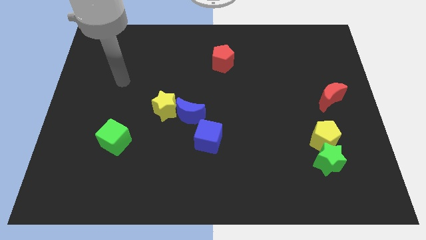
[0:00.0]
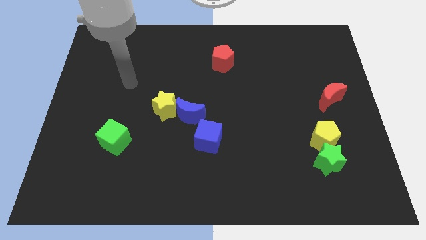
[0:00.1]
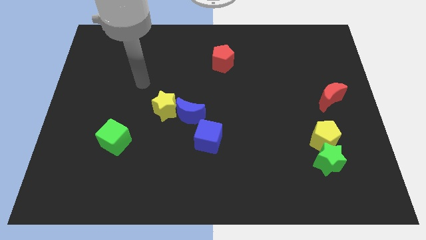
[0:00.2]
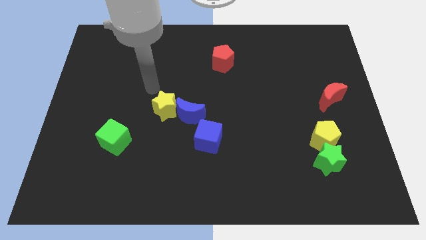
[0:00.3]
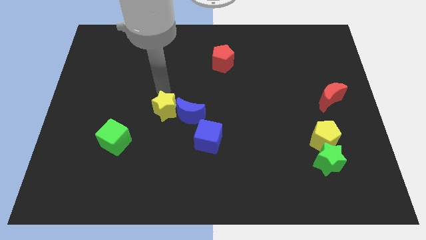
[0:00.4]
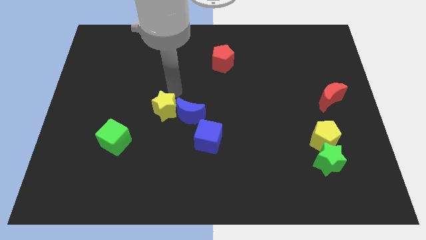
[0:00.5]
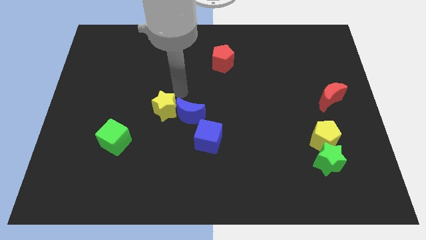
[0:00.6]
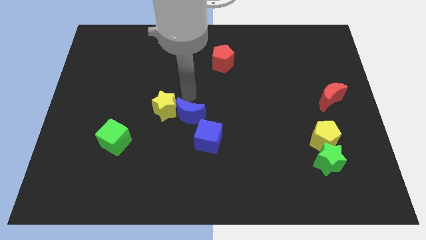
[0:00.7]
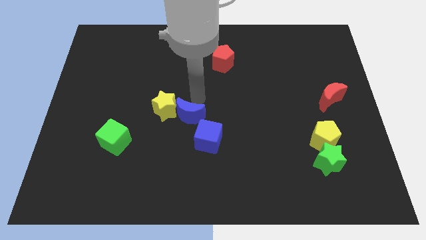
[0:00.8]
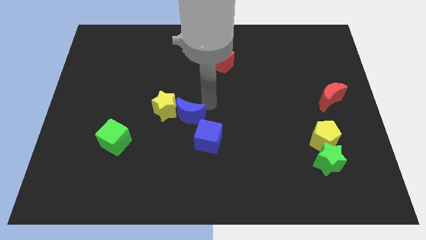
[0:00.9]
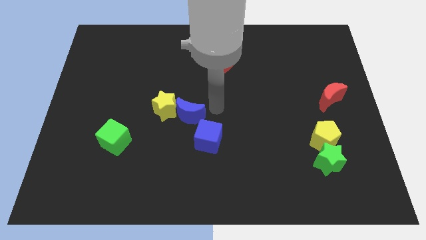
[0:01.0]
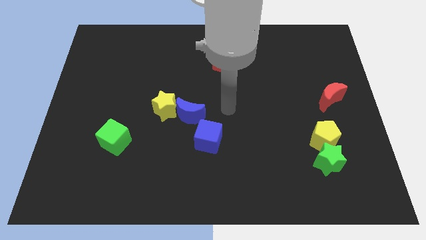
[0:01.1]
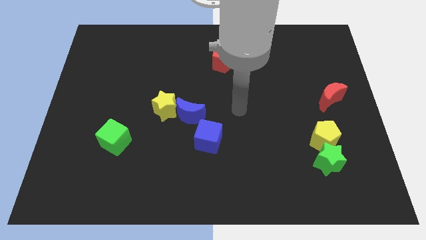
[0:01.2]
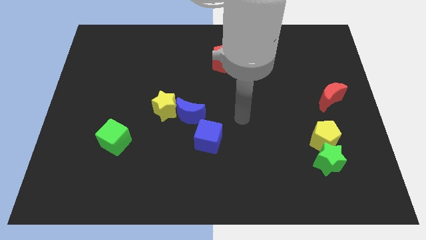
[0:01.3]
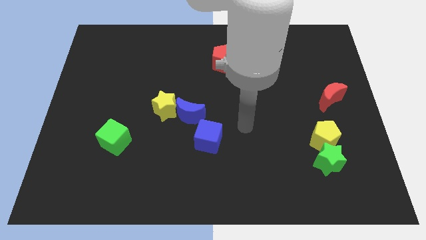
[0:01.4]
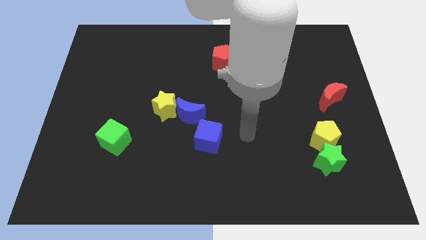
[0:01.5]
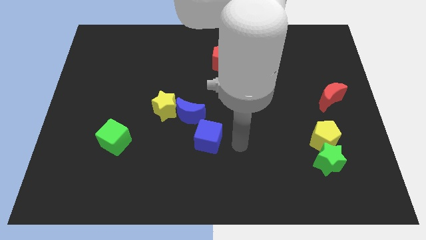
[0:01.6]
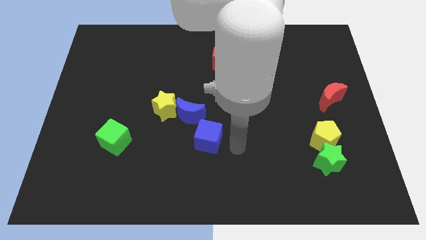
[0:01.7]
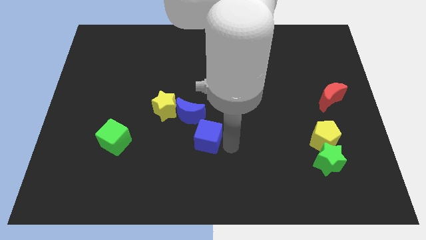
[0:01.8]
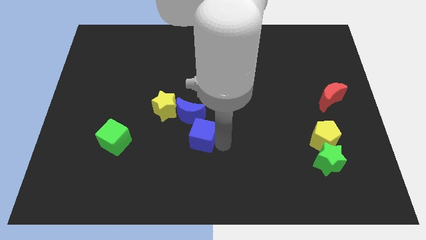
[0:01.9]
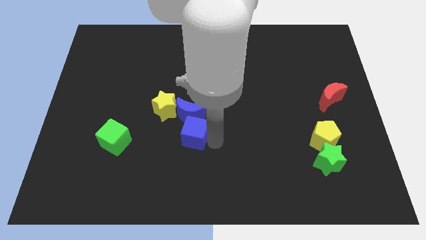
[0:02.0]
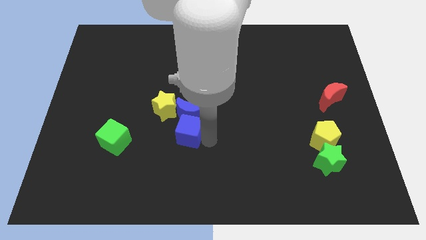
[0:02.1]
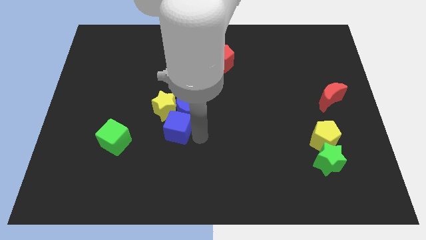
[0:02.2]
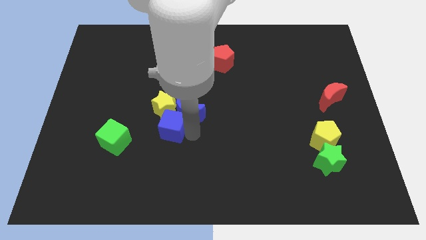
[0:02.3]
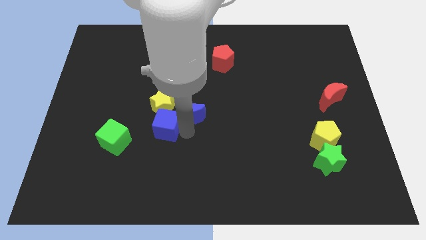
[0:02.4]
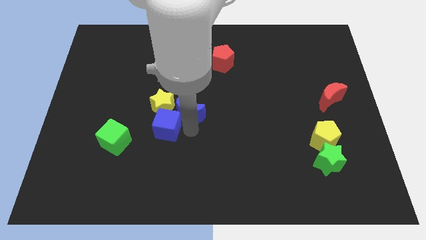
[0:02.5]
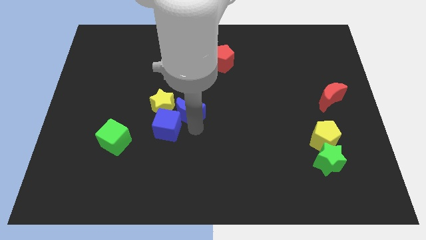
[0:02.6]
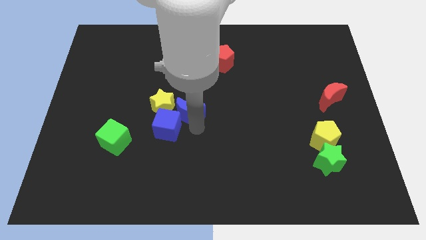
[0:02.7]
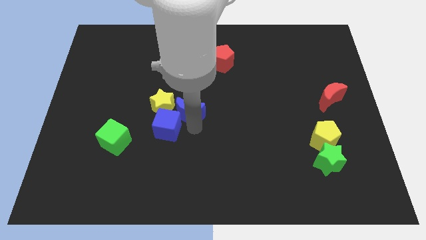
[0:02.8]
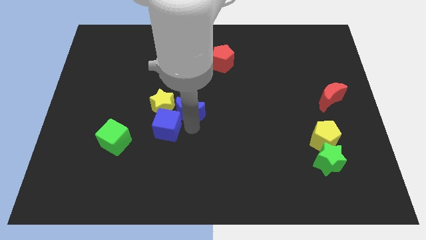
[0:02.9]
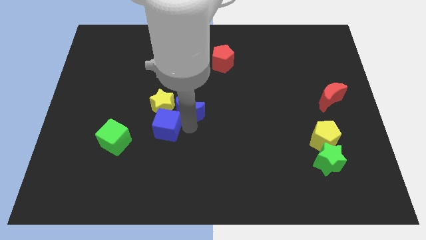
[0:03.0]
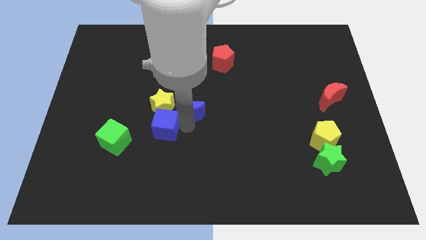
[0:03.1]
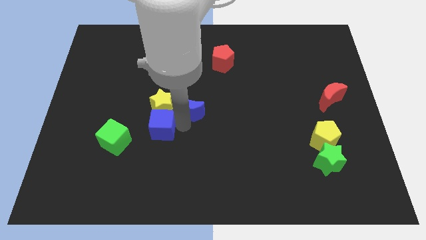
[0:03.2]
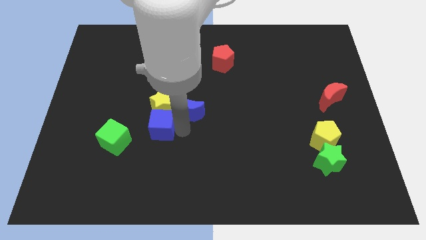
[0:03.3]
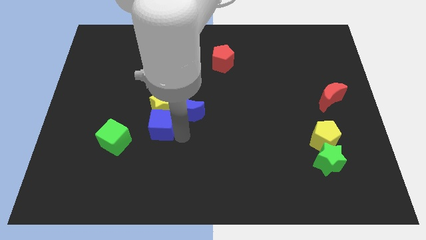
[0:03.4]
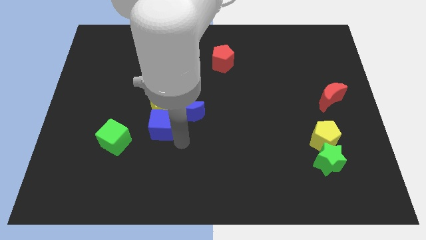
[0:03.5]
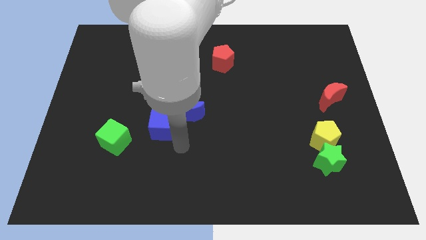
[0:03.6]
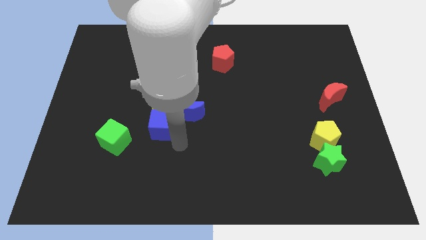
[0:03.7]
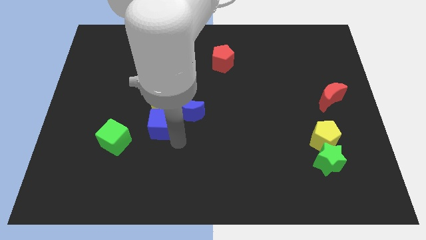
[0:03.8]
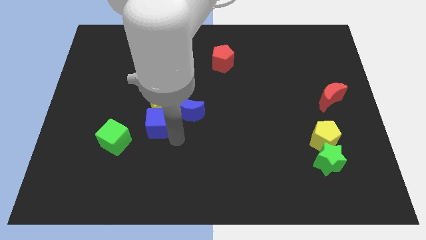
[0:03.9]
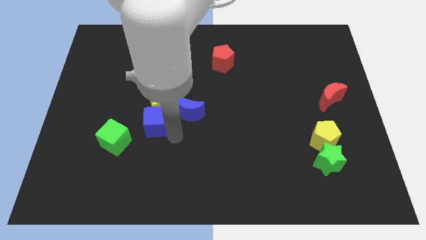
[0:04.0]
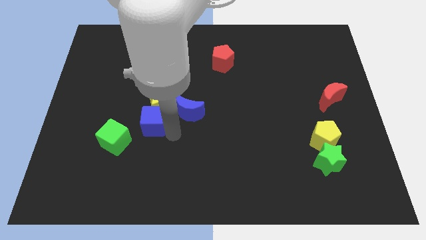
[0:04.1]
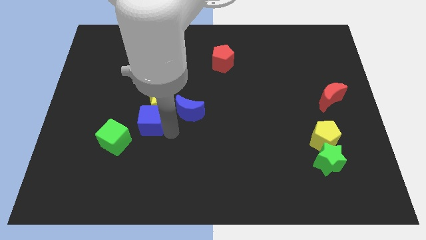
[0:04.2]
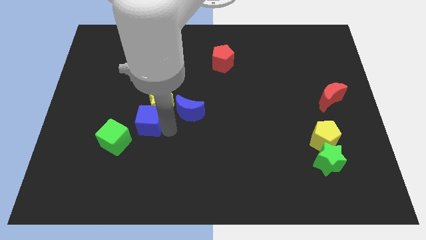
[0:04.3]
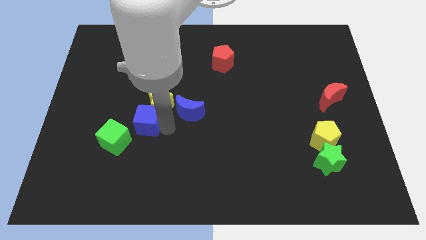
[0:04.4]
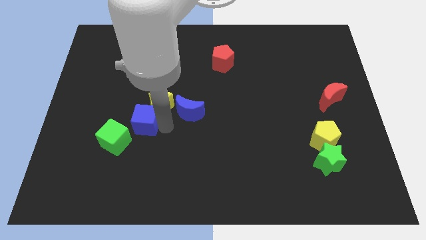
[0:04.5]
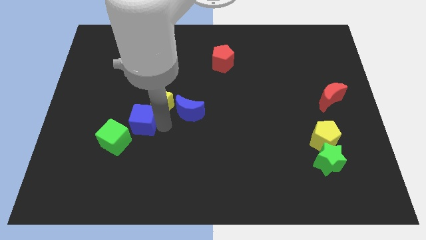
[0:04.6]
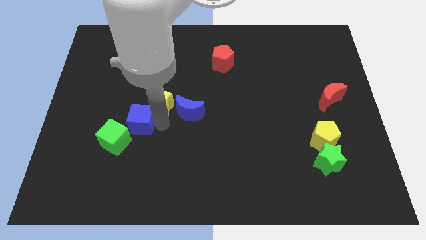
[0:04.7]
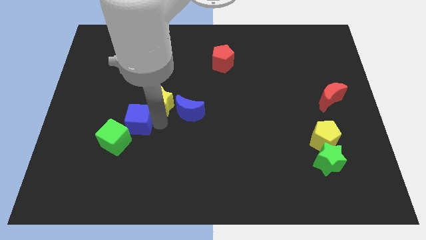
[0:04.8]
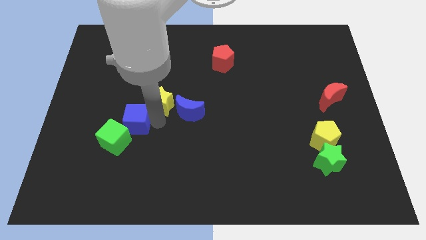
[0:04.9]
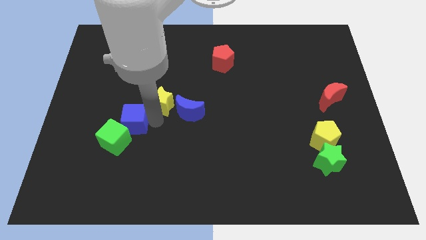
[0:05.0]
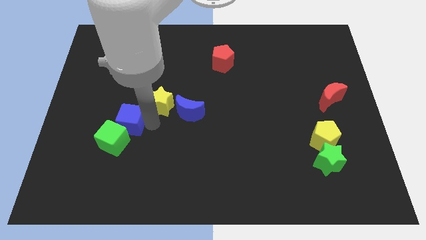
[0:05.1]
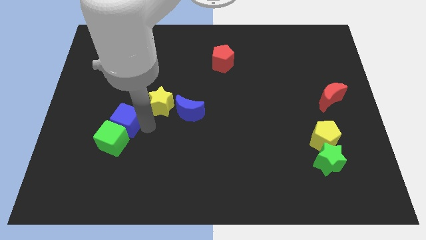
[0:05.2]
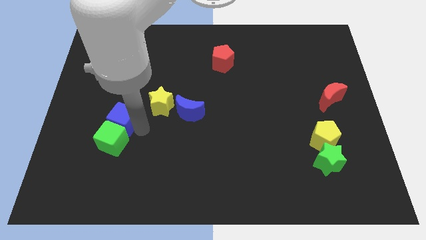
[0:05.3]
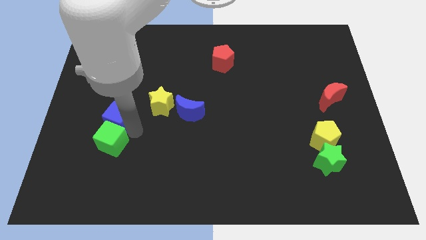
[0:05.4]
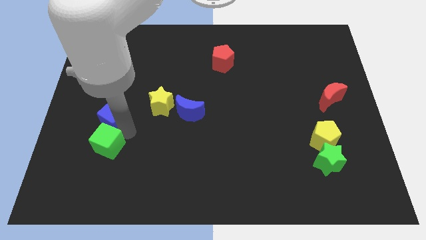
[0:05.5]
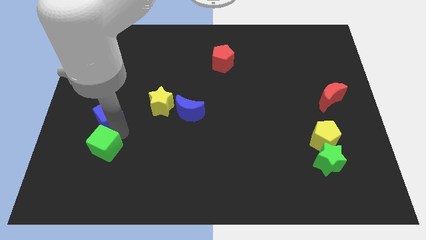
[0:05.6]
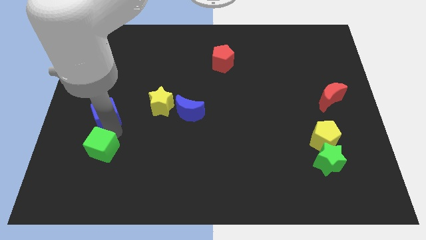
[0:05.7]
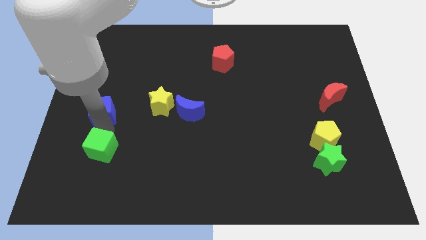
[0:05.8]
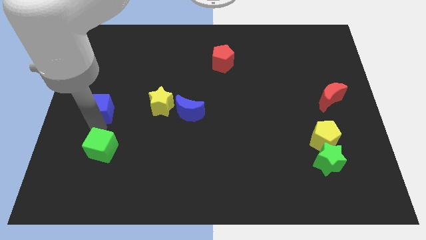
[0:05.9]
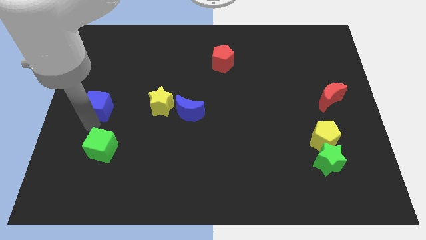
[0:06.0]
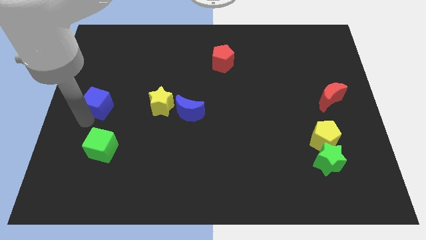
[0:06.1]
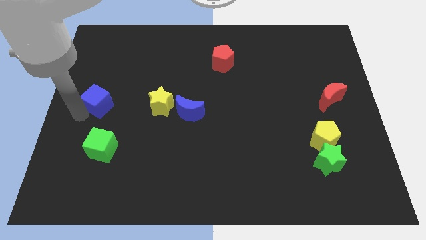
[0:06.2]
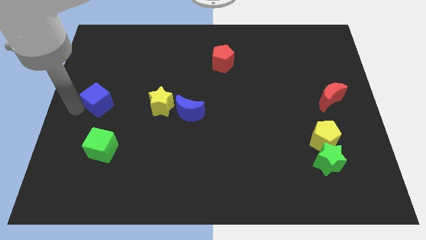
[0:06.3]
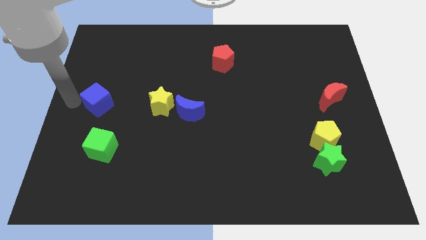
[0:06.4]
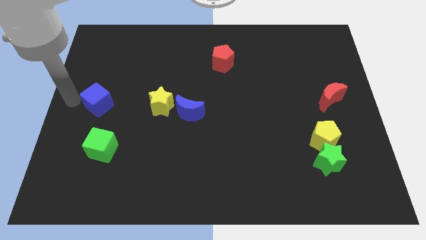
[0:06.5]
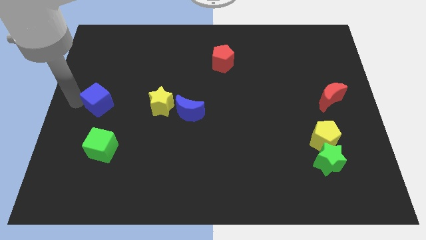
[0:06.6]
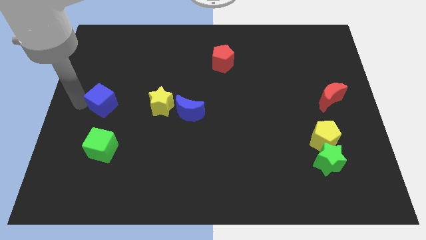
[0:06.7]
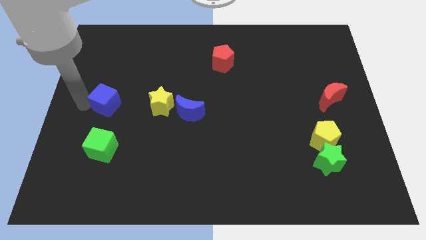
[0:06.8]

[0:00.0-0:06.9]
push the blue cube upwards and to the left diagonally

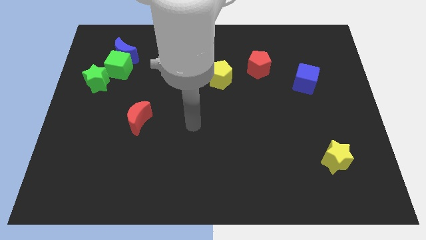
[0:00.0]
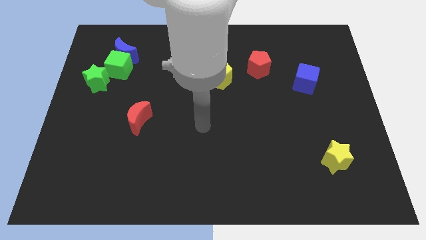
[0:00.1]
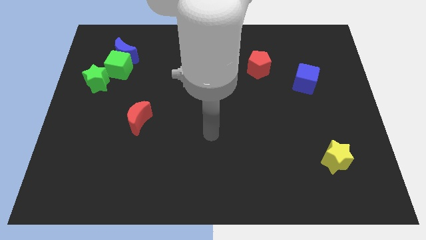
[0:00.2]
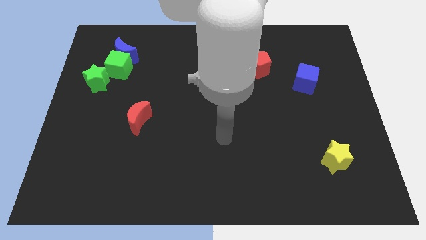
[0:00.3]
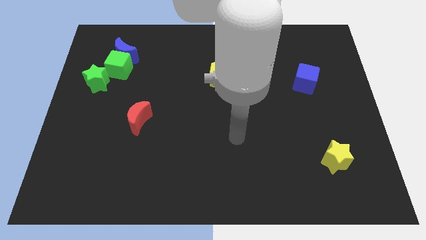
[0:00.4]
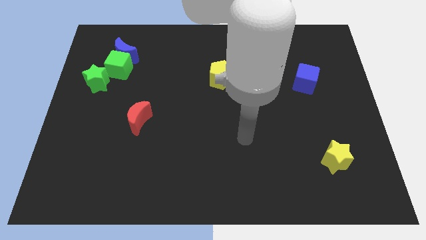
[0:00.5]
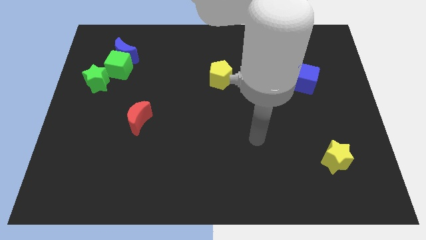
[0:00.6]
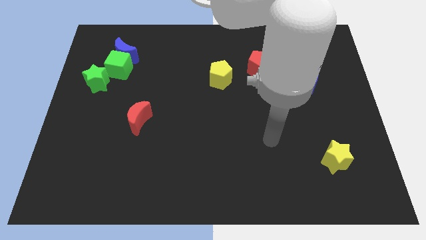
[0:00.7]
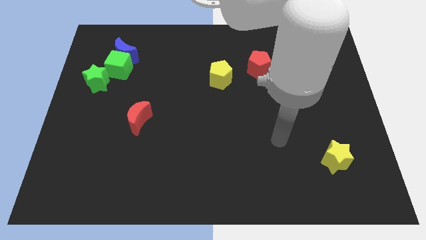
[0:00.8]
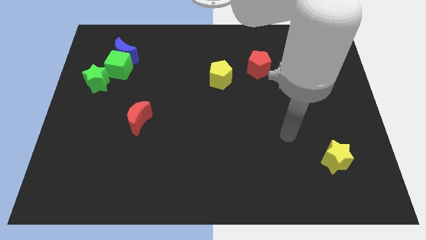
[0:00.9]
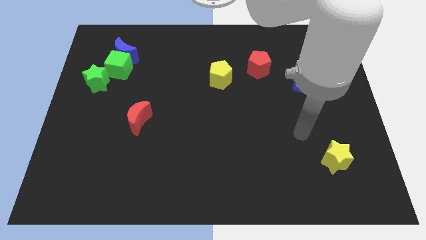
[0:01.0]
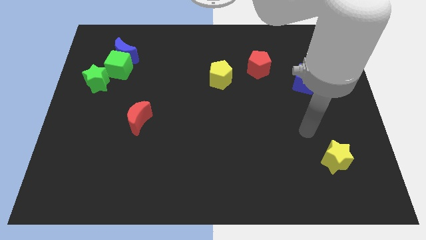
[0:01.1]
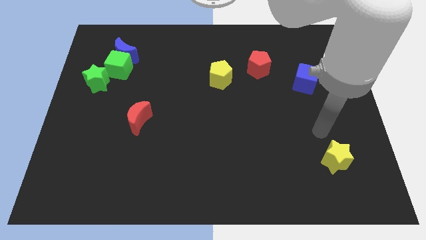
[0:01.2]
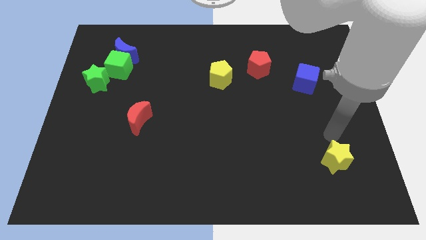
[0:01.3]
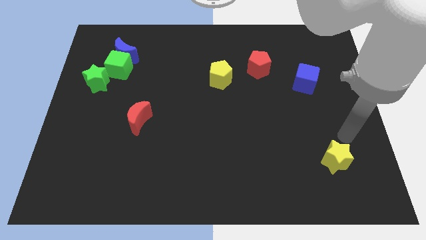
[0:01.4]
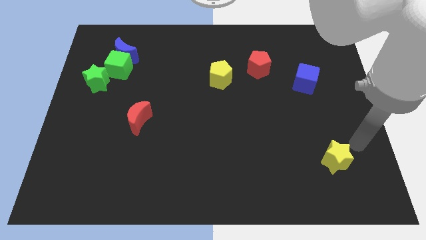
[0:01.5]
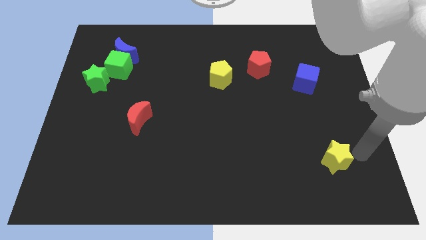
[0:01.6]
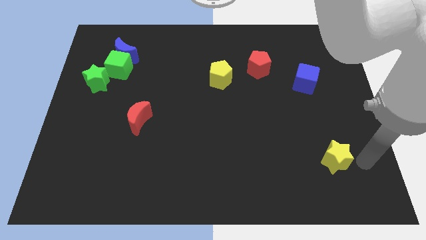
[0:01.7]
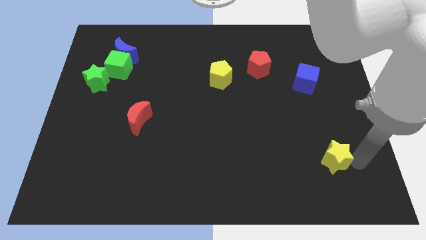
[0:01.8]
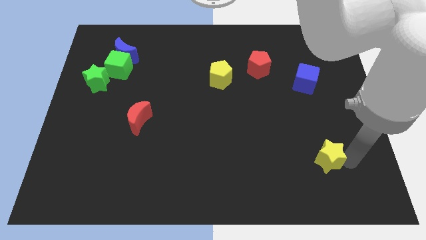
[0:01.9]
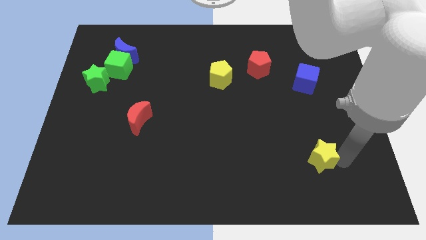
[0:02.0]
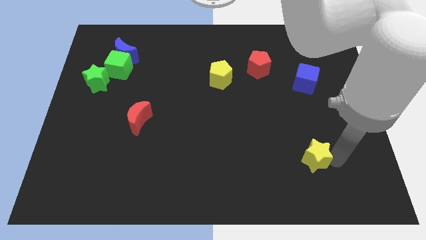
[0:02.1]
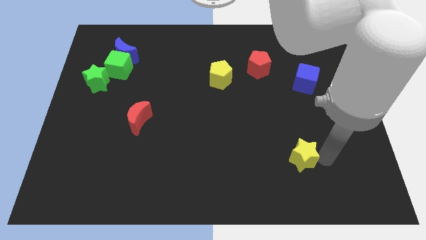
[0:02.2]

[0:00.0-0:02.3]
slightly slide the yellow star left
